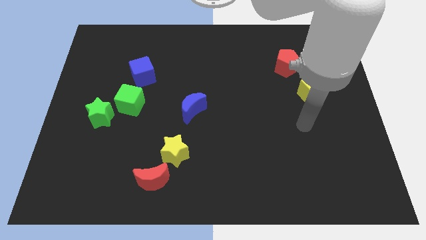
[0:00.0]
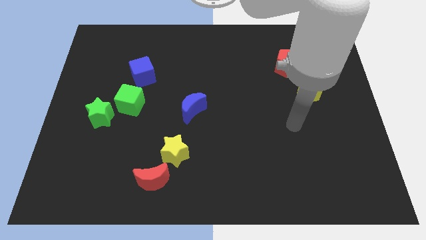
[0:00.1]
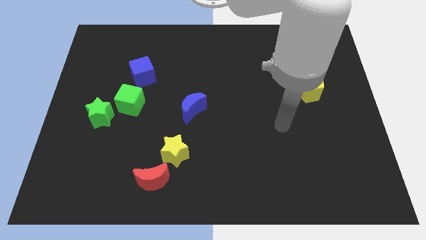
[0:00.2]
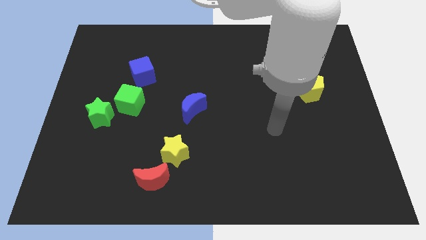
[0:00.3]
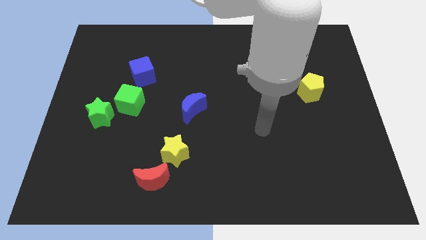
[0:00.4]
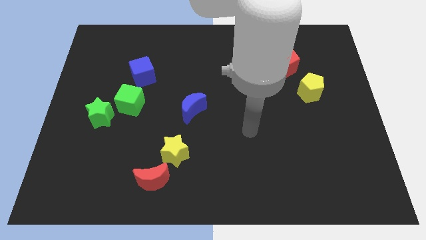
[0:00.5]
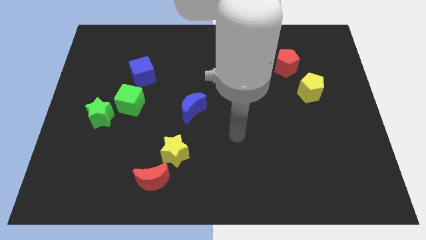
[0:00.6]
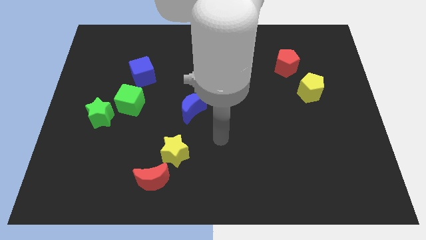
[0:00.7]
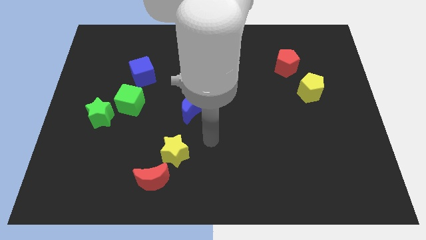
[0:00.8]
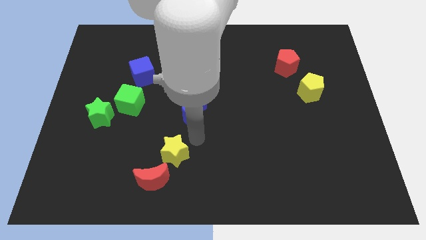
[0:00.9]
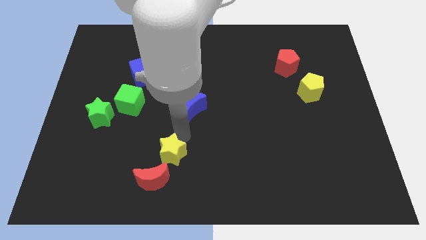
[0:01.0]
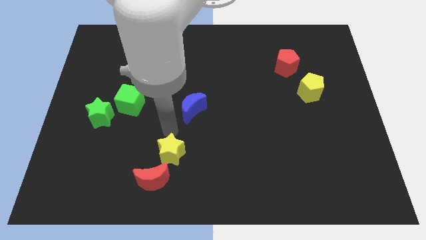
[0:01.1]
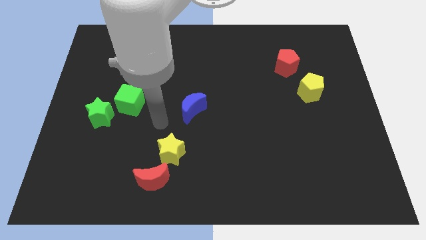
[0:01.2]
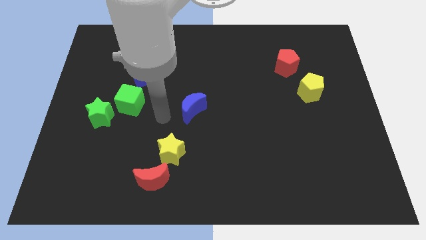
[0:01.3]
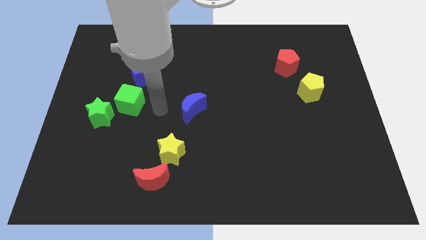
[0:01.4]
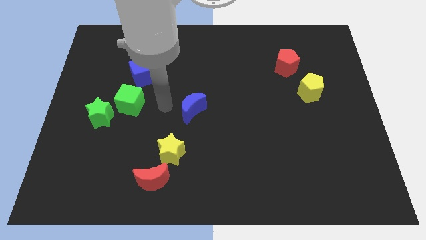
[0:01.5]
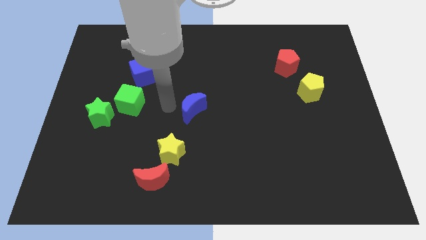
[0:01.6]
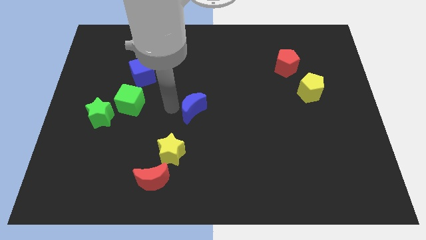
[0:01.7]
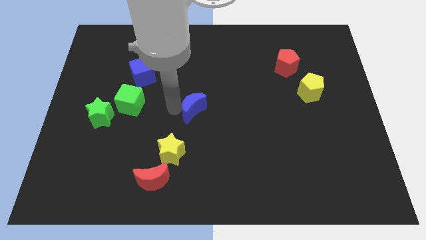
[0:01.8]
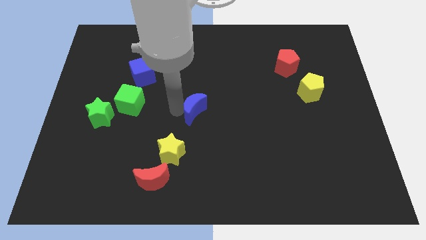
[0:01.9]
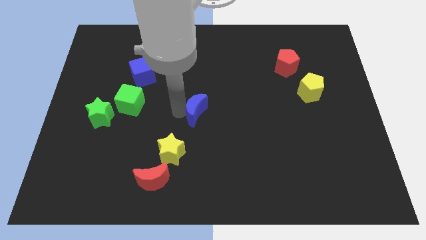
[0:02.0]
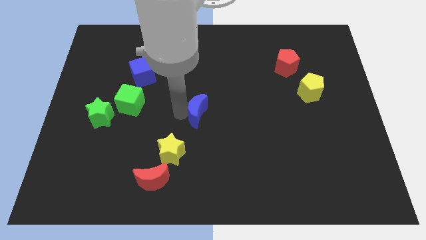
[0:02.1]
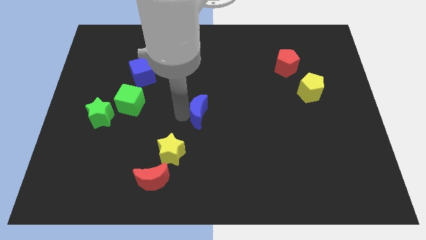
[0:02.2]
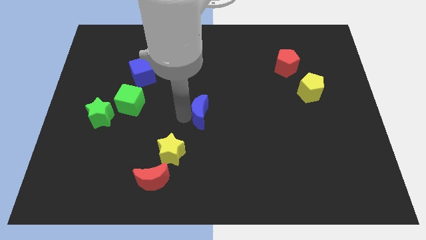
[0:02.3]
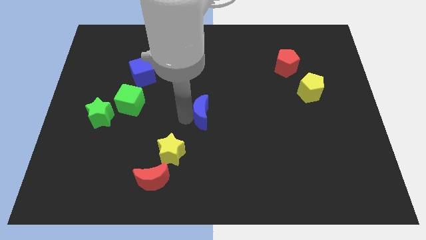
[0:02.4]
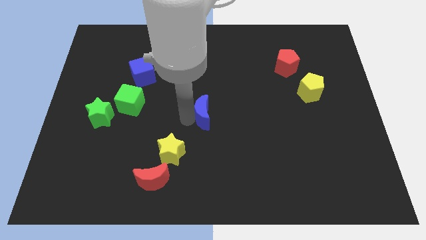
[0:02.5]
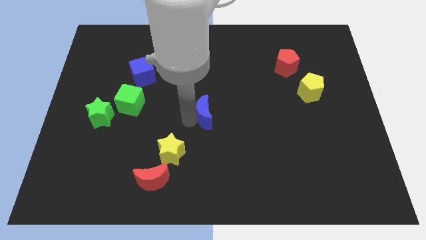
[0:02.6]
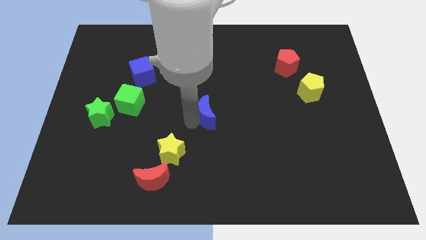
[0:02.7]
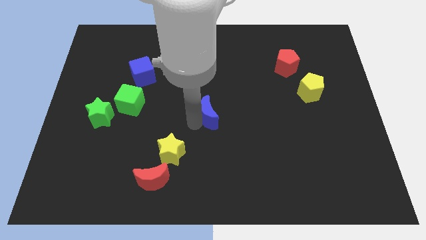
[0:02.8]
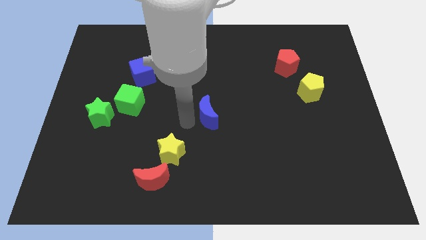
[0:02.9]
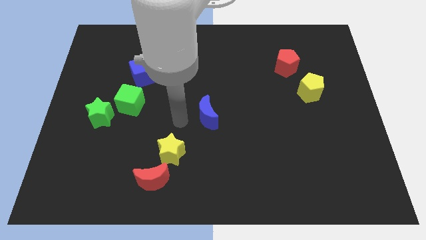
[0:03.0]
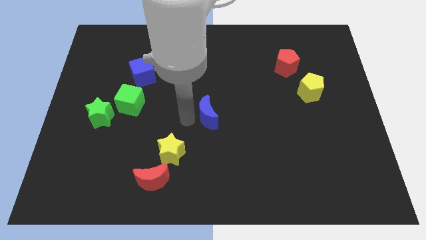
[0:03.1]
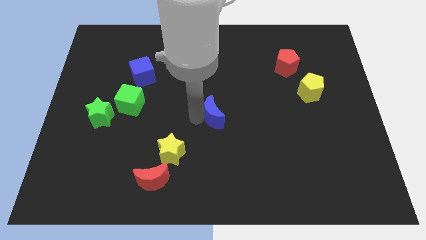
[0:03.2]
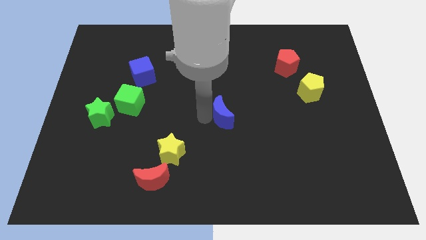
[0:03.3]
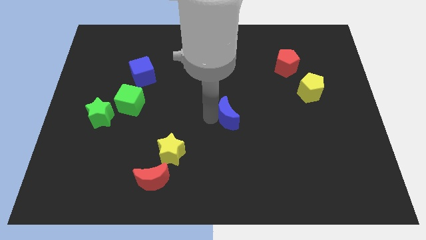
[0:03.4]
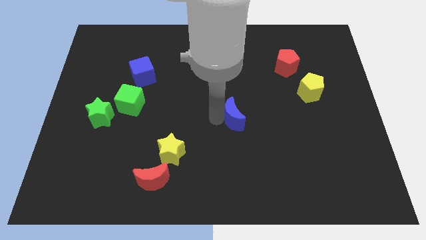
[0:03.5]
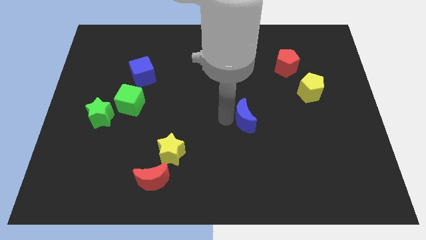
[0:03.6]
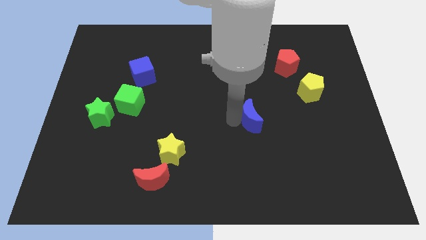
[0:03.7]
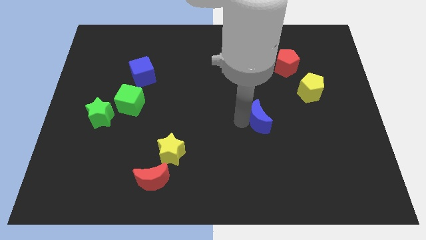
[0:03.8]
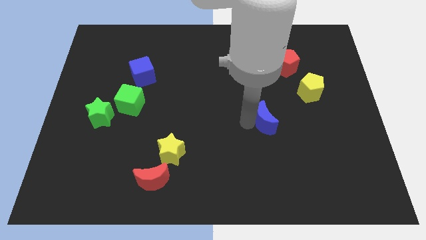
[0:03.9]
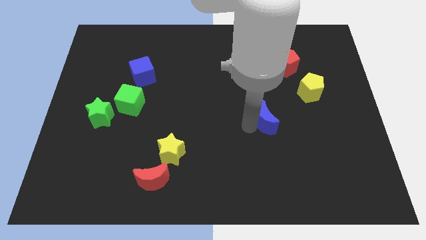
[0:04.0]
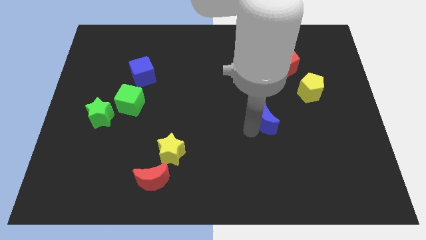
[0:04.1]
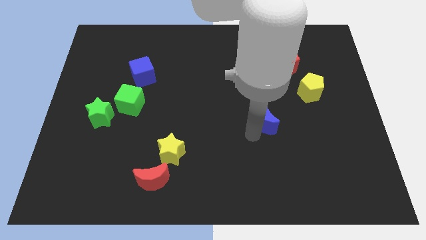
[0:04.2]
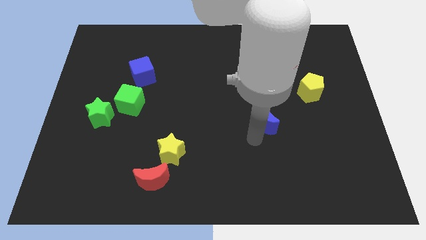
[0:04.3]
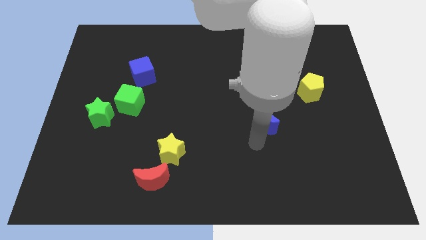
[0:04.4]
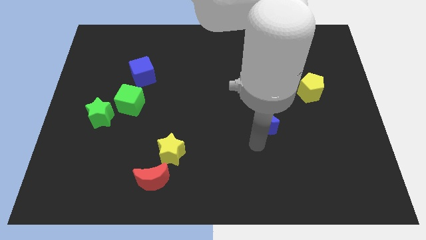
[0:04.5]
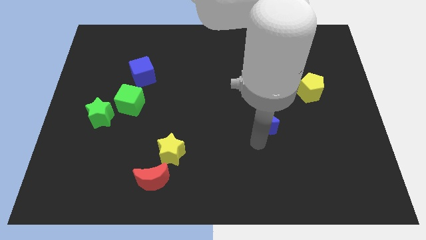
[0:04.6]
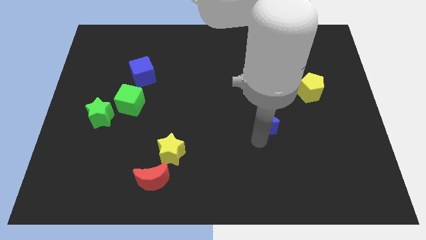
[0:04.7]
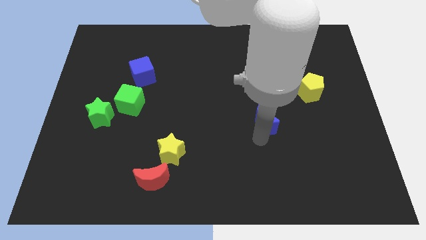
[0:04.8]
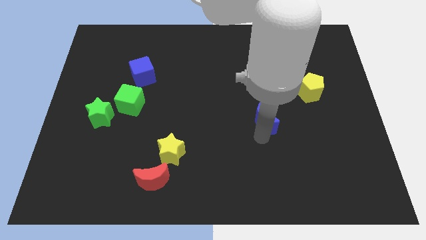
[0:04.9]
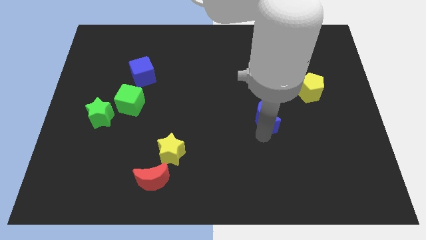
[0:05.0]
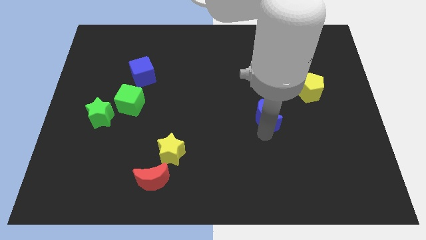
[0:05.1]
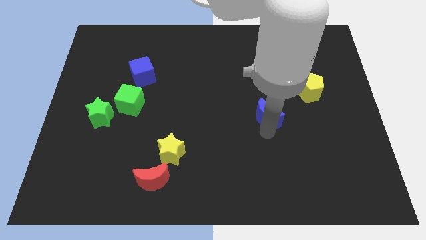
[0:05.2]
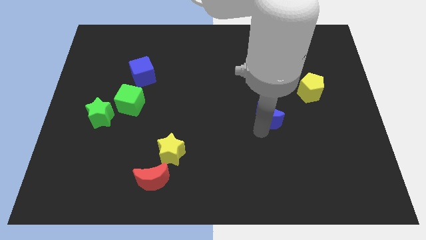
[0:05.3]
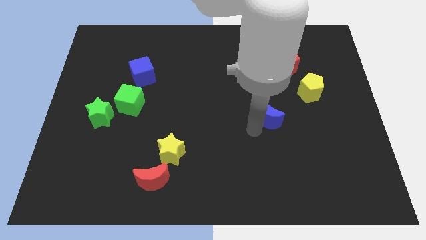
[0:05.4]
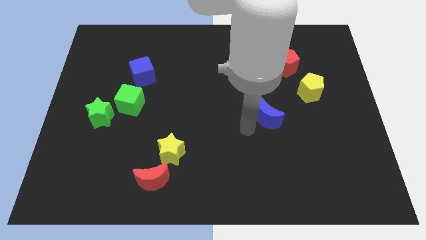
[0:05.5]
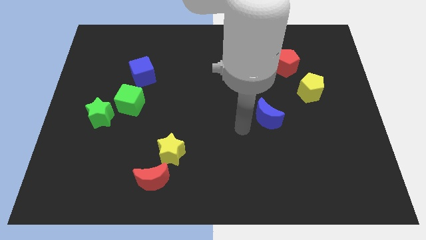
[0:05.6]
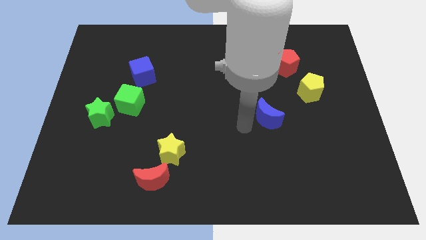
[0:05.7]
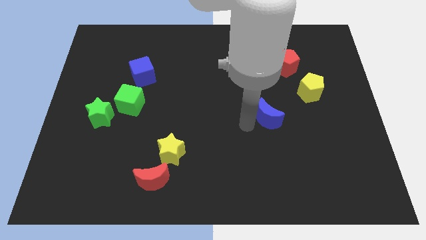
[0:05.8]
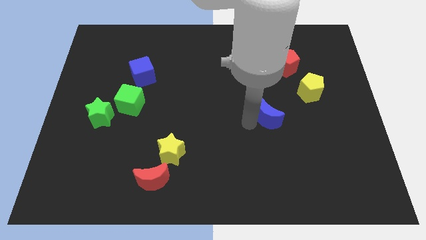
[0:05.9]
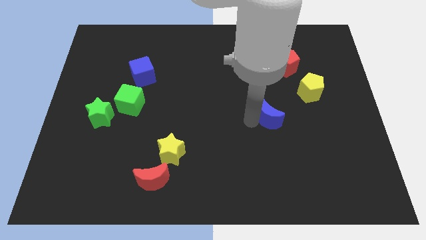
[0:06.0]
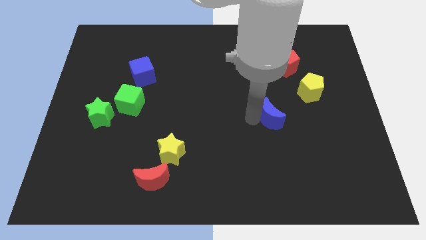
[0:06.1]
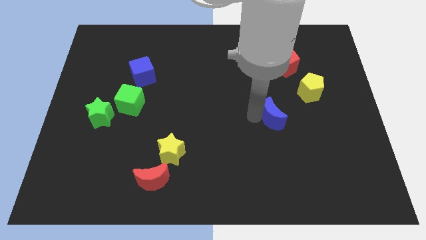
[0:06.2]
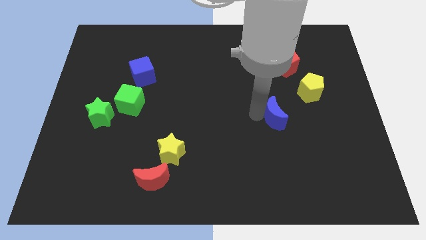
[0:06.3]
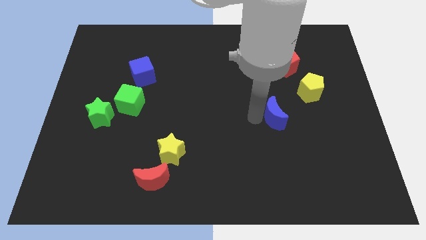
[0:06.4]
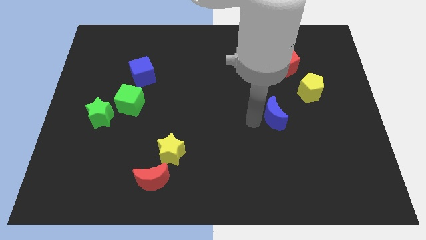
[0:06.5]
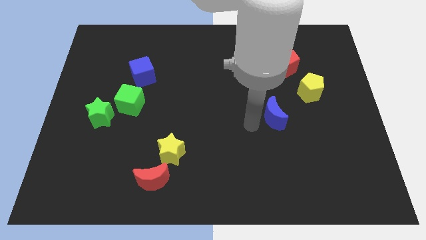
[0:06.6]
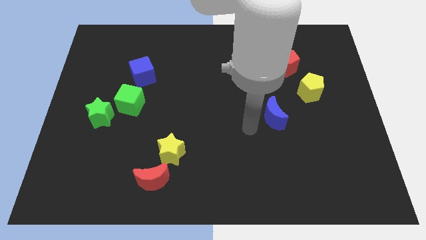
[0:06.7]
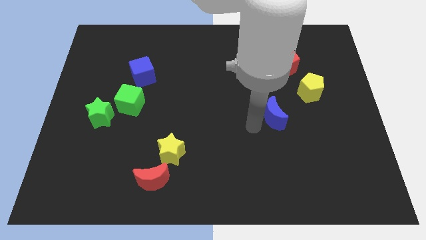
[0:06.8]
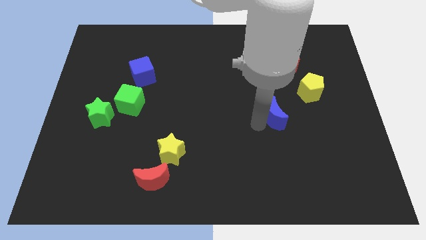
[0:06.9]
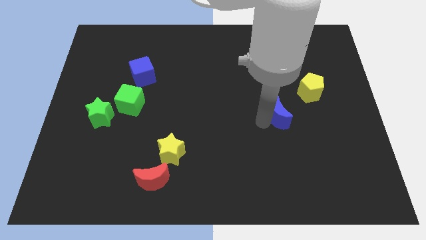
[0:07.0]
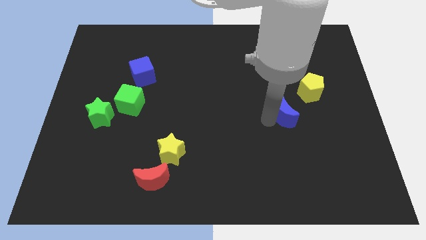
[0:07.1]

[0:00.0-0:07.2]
move the blue moon to the right

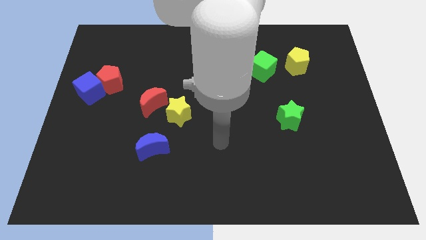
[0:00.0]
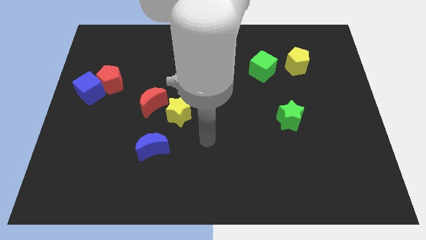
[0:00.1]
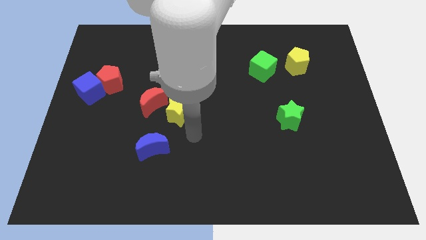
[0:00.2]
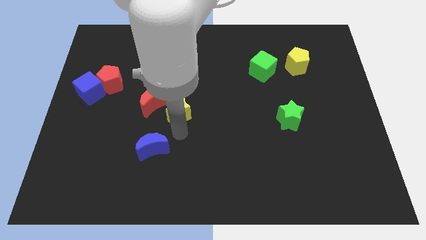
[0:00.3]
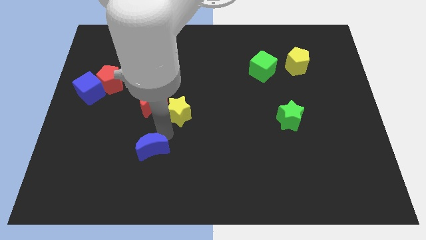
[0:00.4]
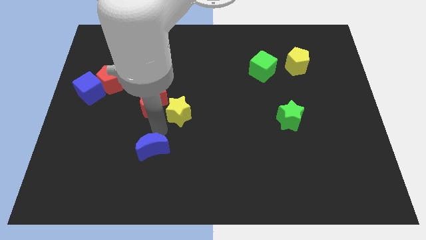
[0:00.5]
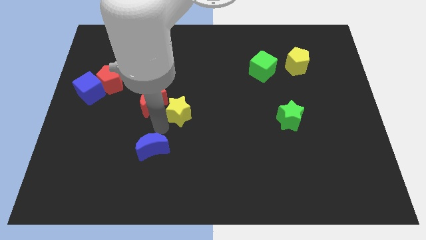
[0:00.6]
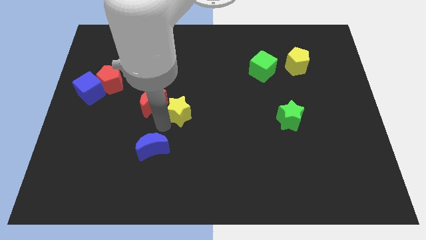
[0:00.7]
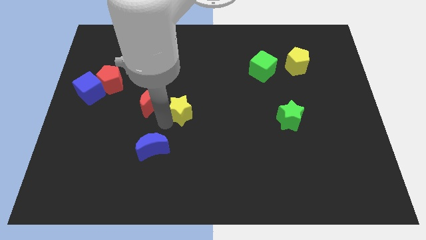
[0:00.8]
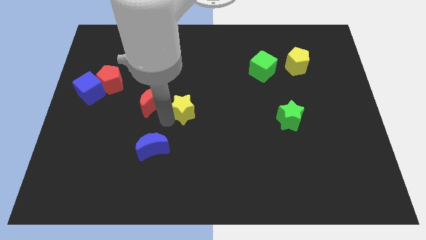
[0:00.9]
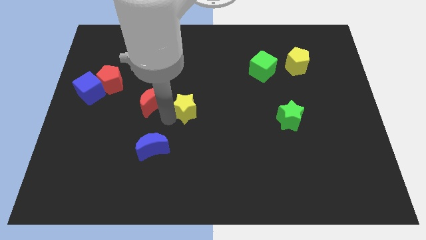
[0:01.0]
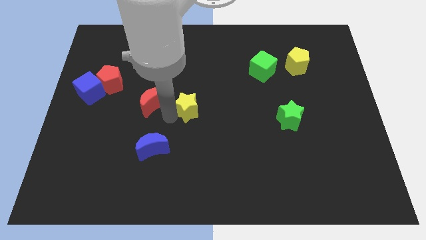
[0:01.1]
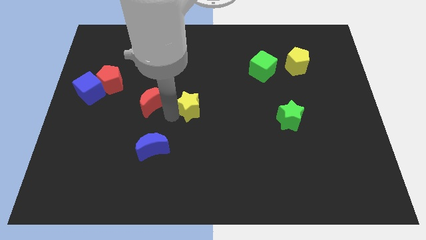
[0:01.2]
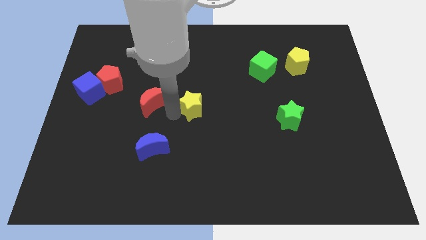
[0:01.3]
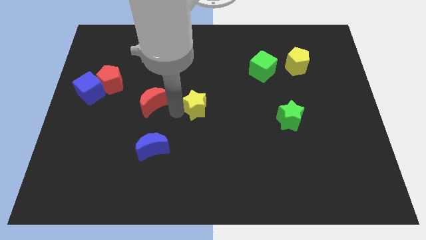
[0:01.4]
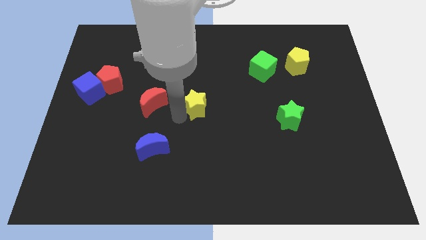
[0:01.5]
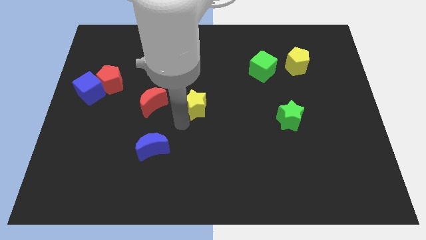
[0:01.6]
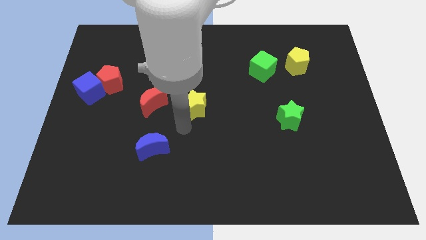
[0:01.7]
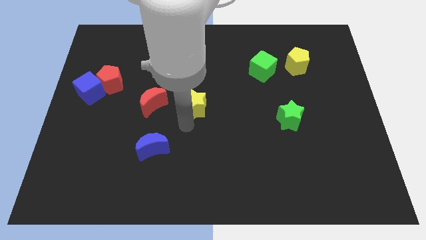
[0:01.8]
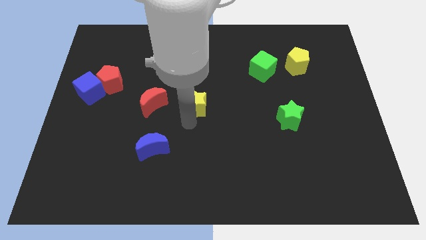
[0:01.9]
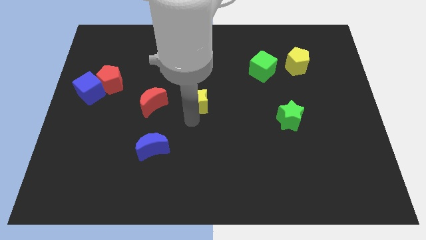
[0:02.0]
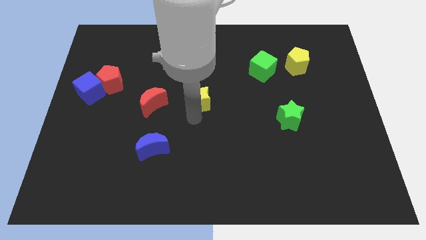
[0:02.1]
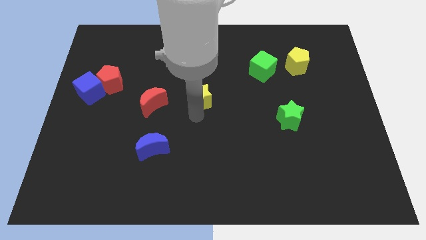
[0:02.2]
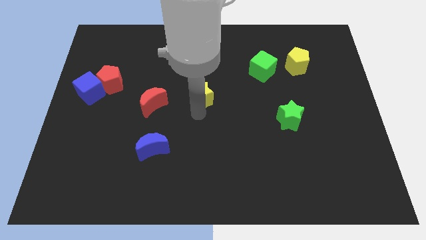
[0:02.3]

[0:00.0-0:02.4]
slightly push the yellow star upwards and right diagonally
